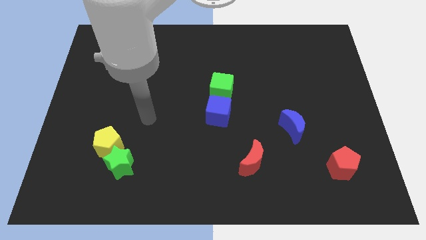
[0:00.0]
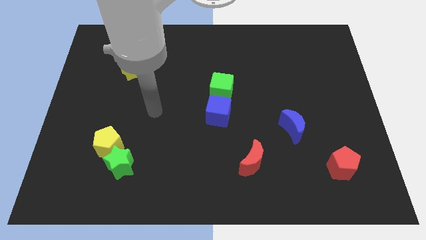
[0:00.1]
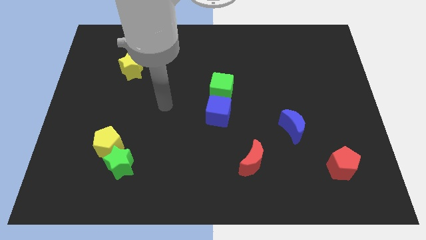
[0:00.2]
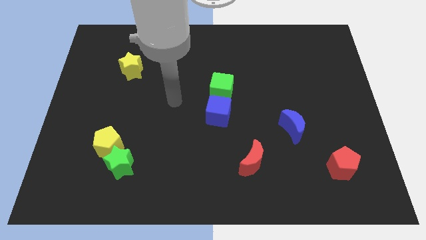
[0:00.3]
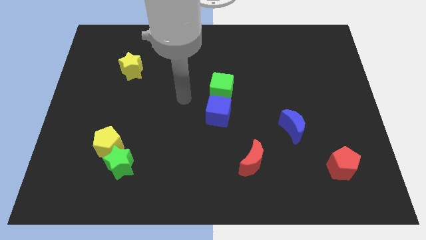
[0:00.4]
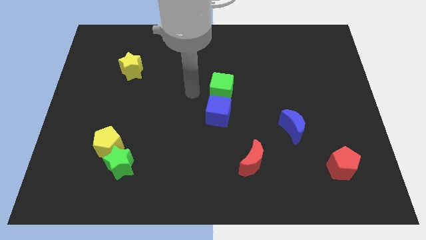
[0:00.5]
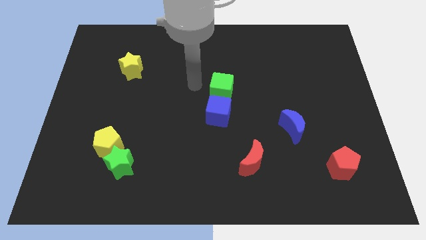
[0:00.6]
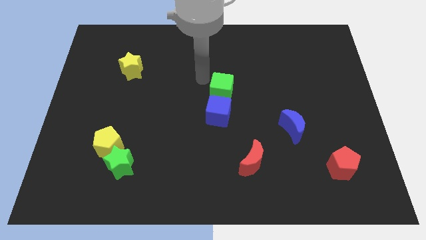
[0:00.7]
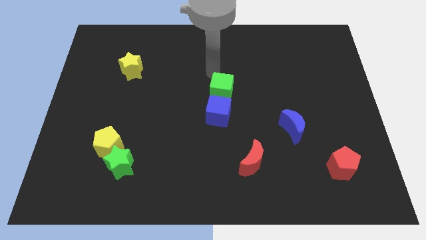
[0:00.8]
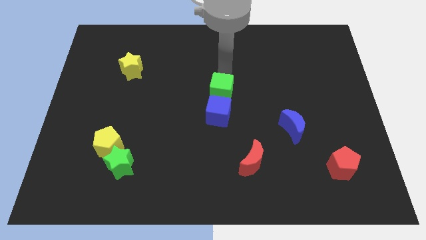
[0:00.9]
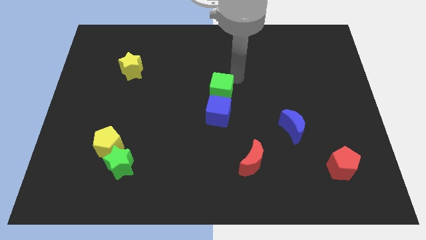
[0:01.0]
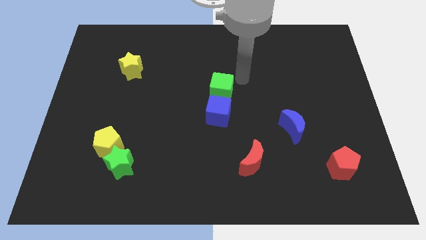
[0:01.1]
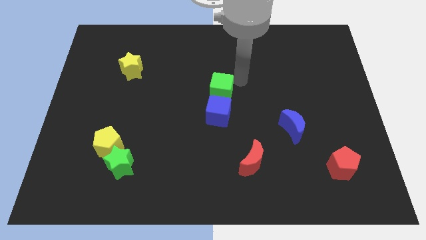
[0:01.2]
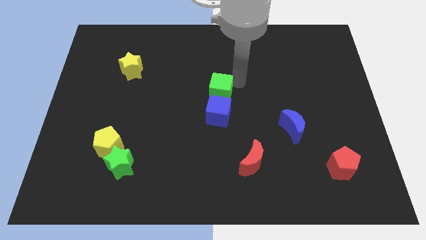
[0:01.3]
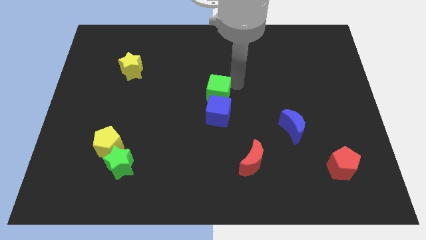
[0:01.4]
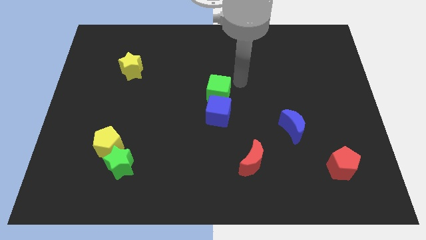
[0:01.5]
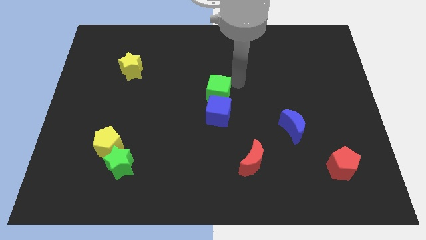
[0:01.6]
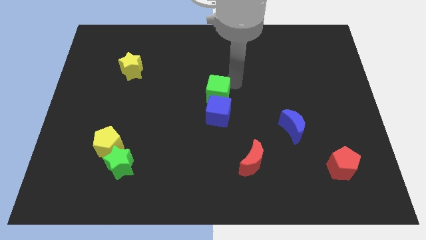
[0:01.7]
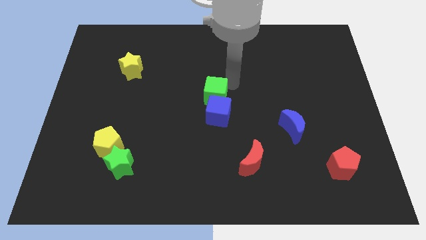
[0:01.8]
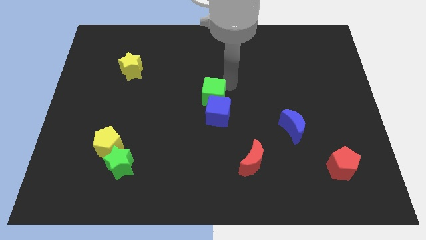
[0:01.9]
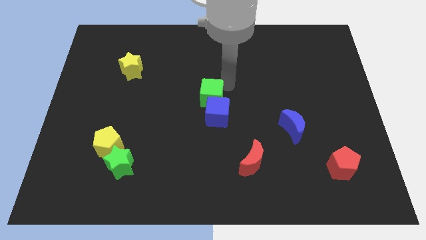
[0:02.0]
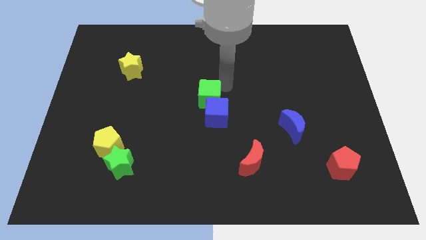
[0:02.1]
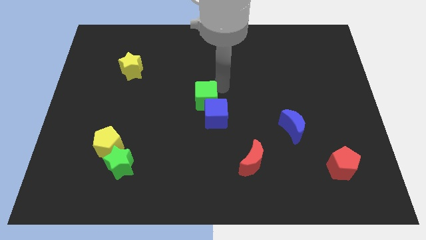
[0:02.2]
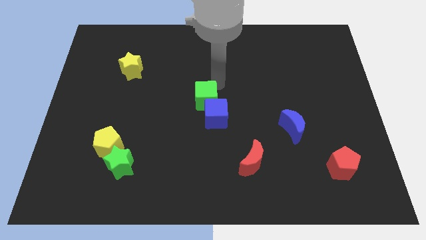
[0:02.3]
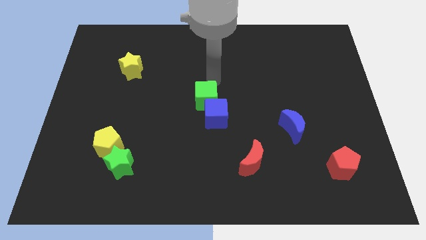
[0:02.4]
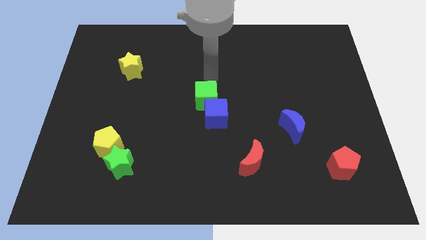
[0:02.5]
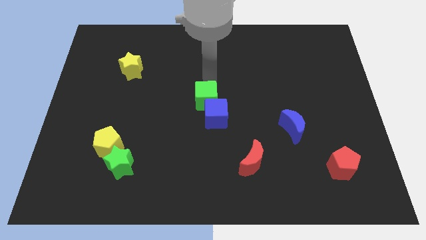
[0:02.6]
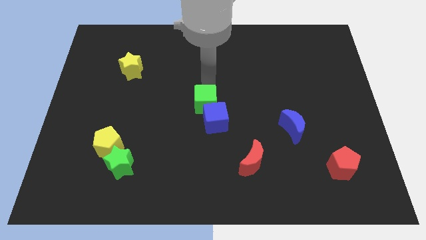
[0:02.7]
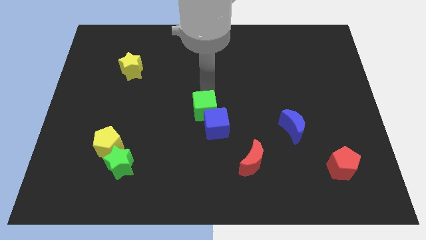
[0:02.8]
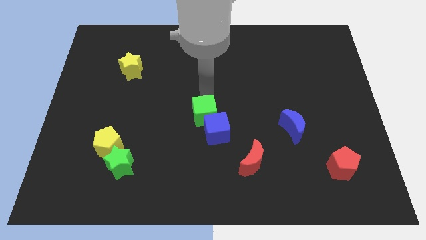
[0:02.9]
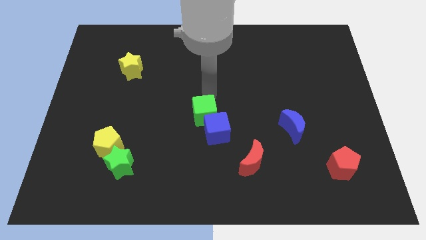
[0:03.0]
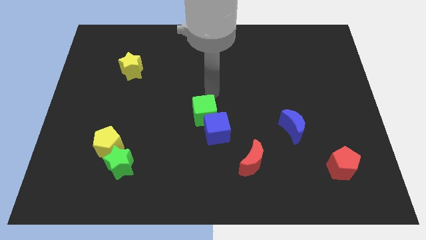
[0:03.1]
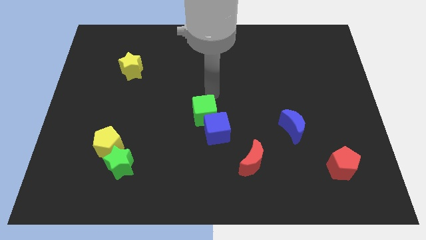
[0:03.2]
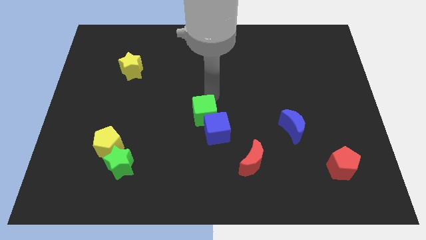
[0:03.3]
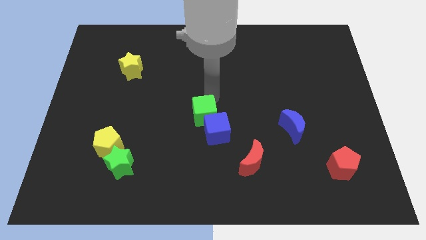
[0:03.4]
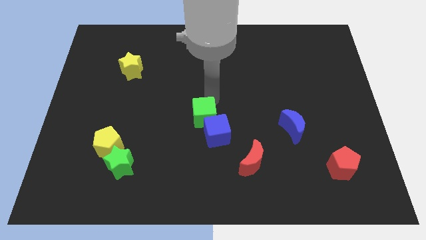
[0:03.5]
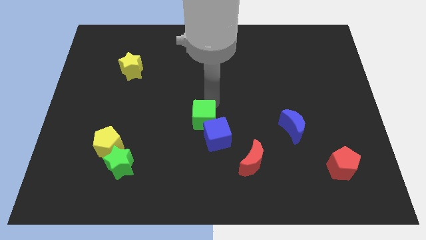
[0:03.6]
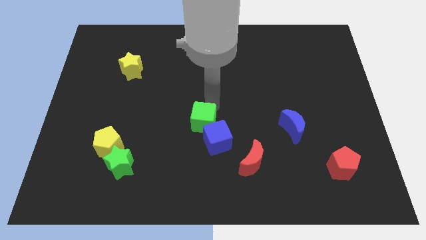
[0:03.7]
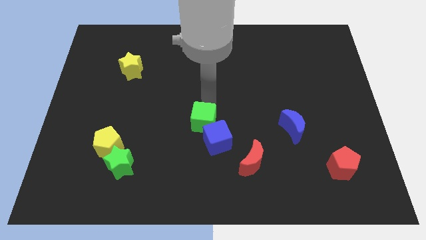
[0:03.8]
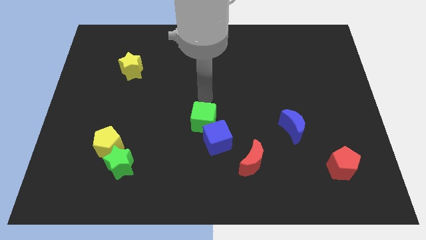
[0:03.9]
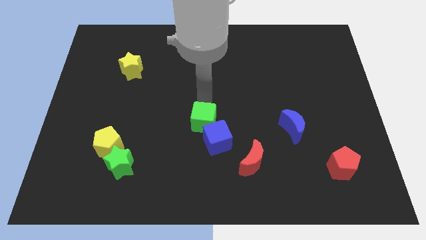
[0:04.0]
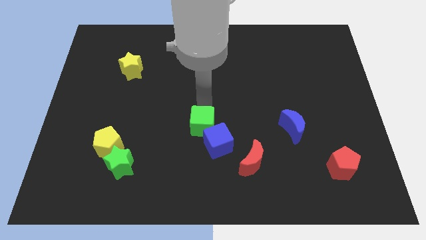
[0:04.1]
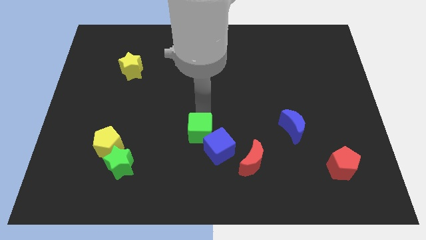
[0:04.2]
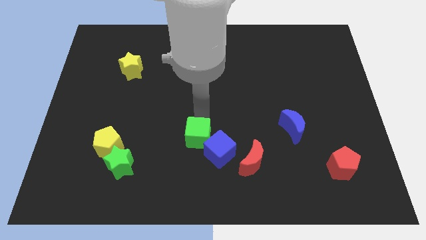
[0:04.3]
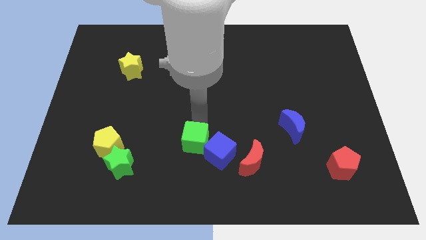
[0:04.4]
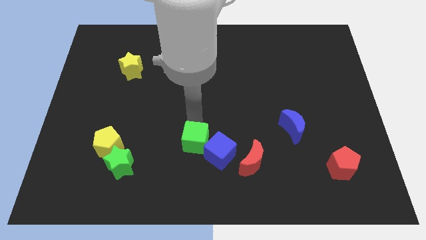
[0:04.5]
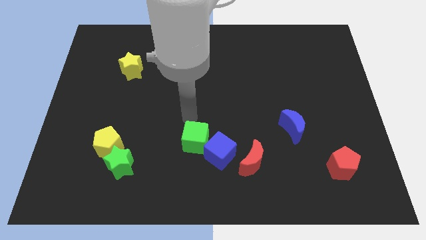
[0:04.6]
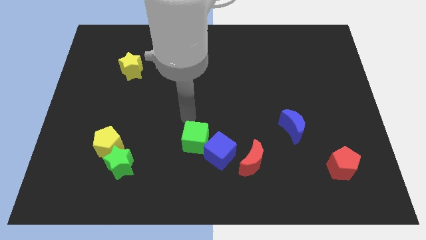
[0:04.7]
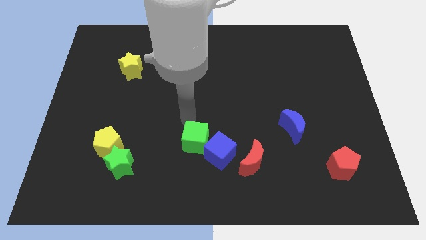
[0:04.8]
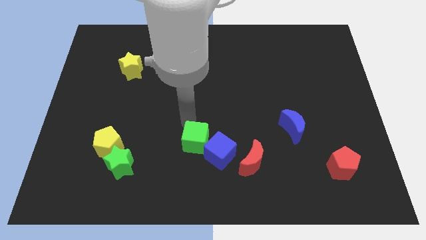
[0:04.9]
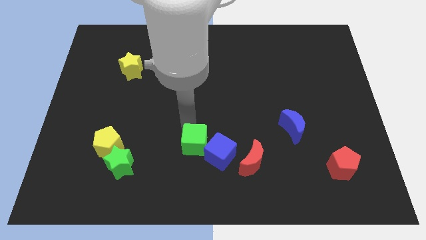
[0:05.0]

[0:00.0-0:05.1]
put the green cube to the left side of the red moon

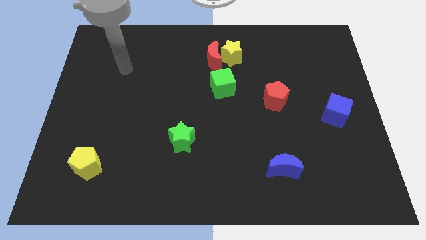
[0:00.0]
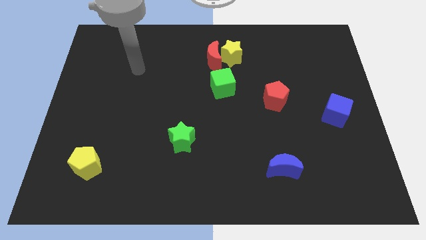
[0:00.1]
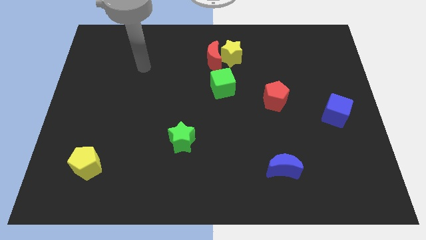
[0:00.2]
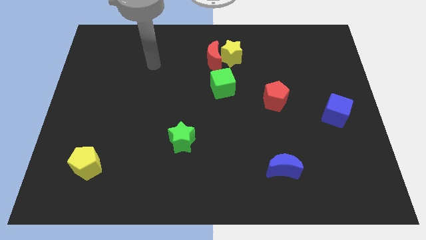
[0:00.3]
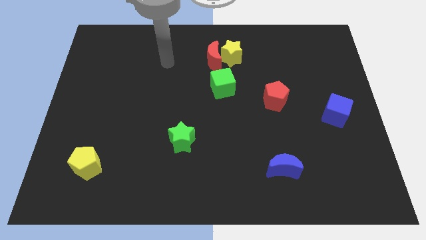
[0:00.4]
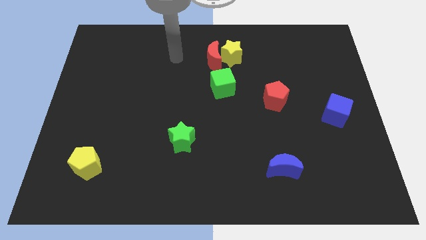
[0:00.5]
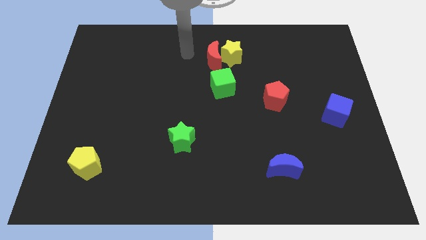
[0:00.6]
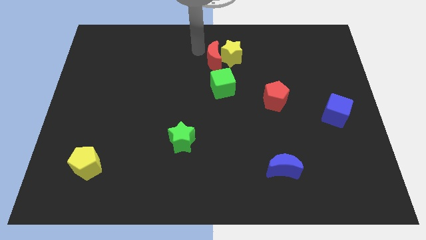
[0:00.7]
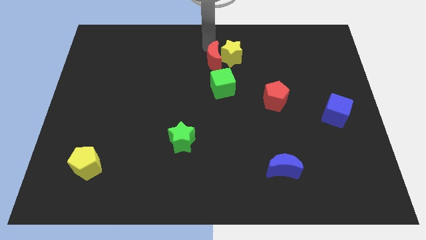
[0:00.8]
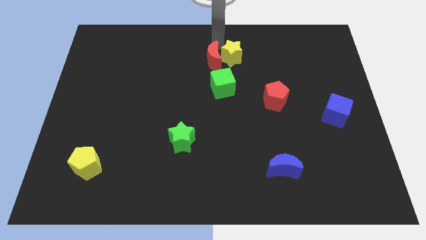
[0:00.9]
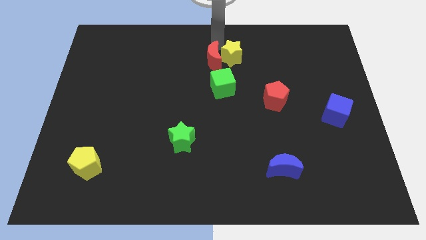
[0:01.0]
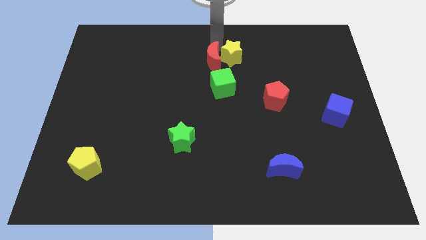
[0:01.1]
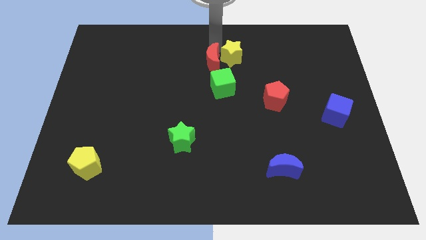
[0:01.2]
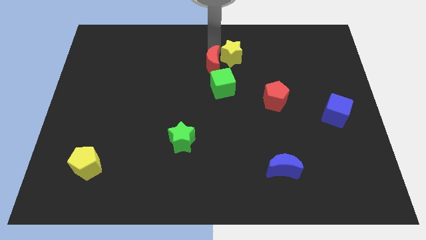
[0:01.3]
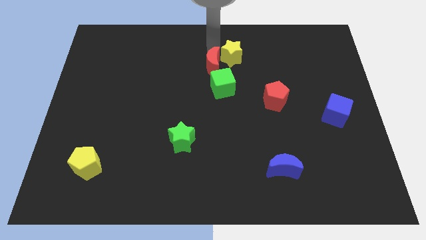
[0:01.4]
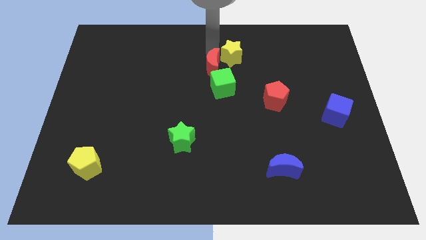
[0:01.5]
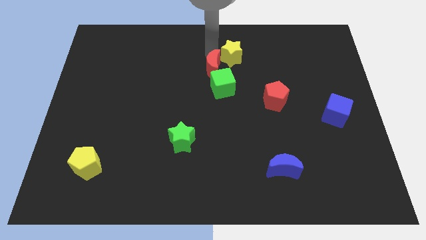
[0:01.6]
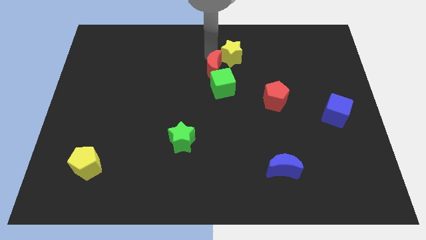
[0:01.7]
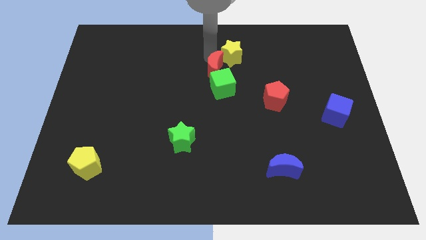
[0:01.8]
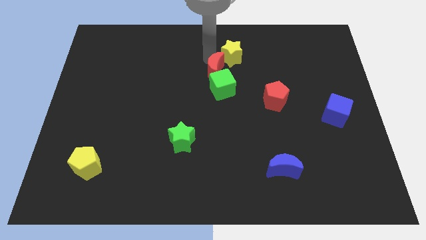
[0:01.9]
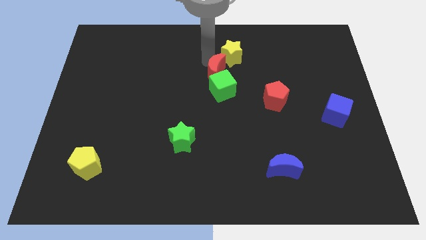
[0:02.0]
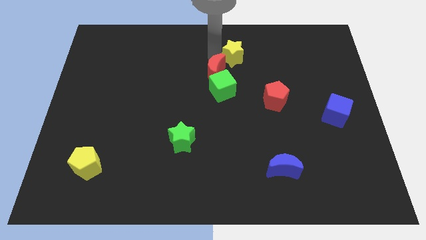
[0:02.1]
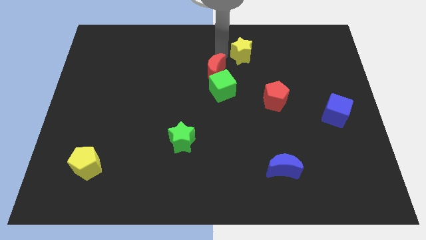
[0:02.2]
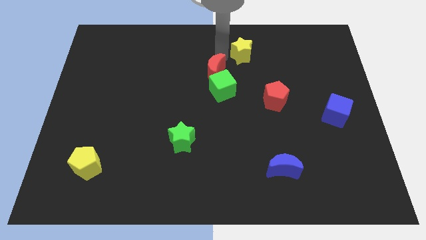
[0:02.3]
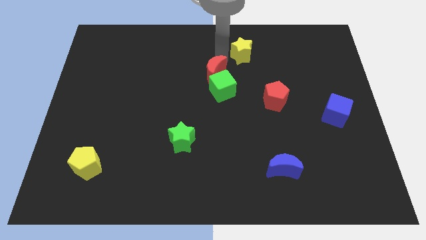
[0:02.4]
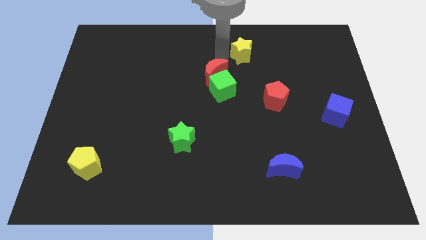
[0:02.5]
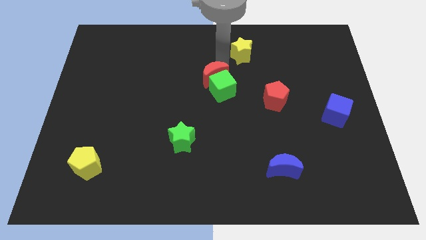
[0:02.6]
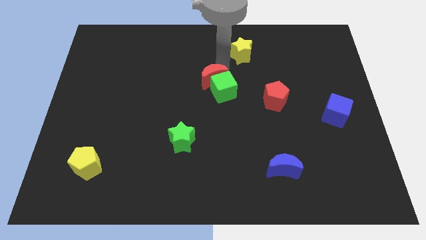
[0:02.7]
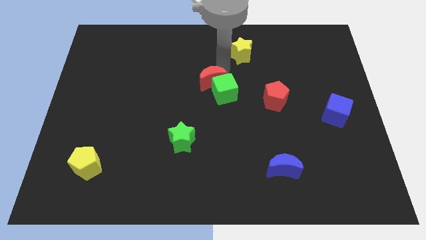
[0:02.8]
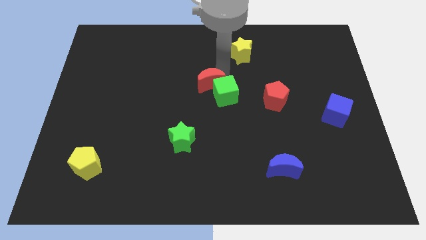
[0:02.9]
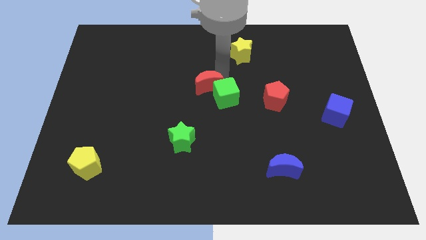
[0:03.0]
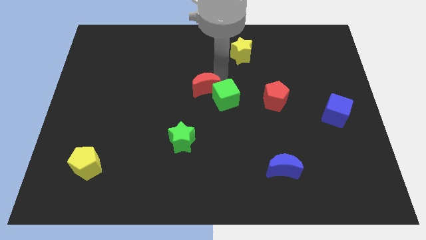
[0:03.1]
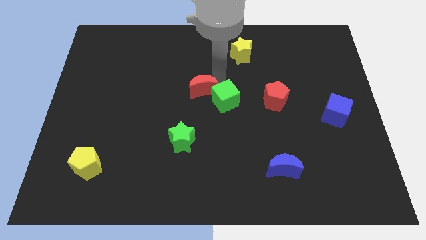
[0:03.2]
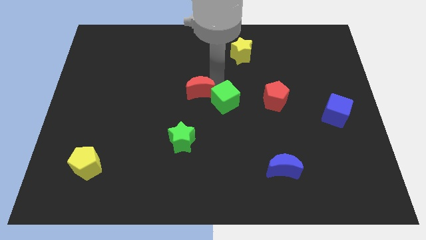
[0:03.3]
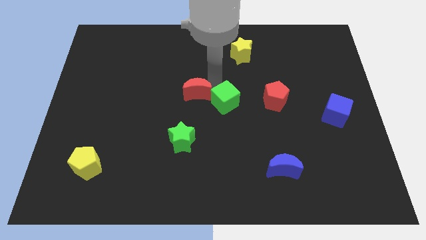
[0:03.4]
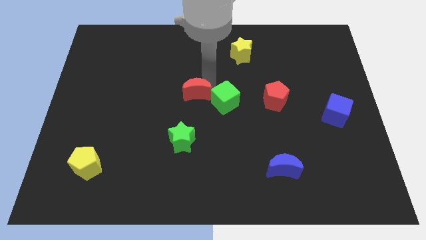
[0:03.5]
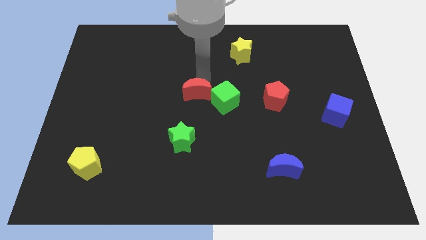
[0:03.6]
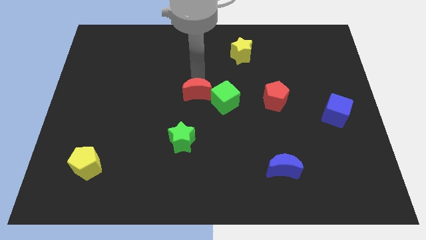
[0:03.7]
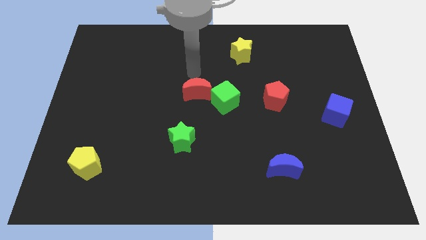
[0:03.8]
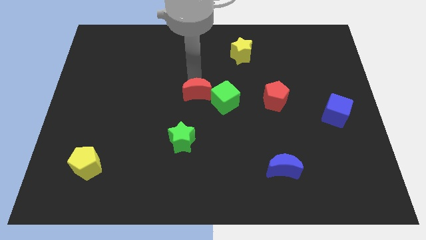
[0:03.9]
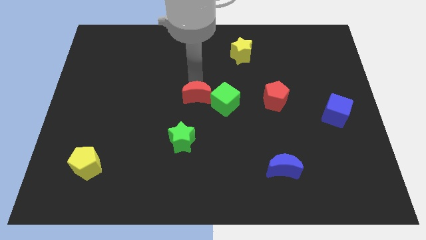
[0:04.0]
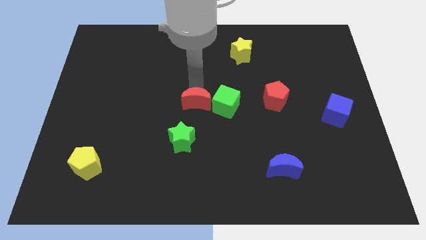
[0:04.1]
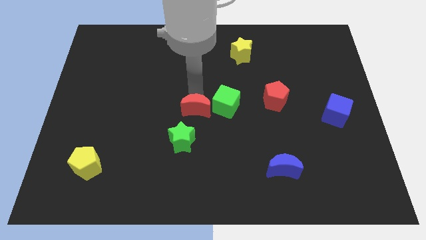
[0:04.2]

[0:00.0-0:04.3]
put the red moon to the bottom left side of the green cube
